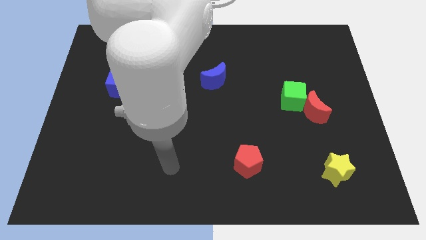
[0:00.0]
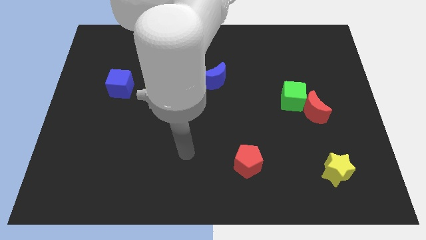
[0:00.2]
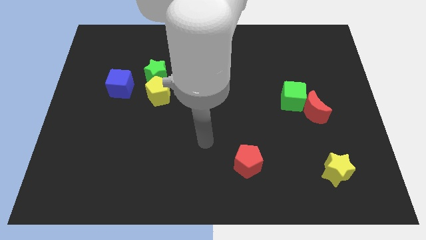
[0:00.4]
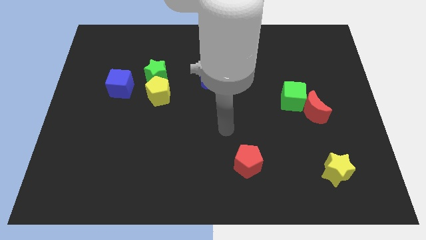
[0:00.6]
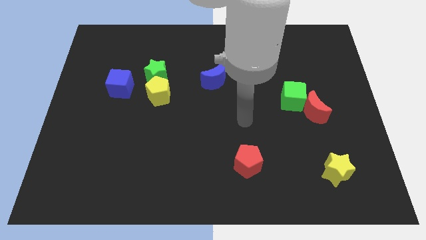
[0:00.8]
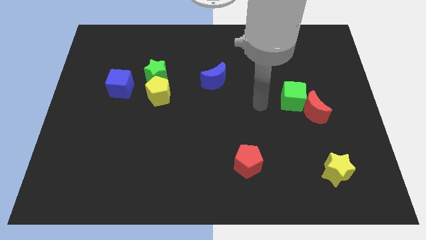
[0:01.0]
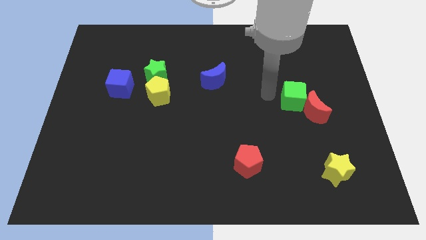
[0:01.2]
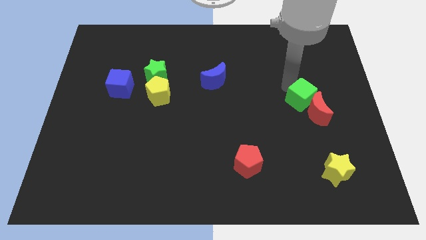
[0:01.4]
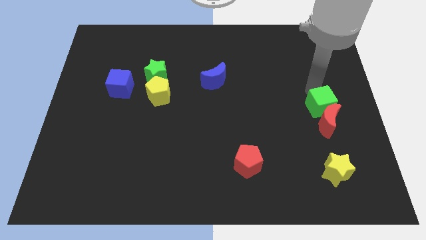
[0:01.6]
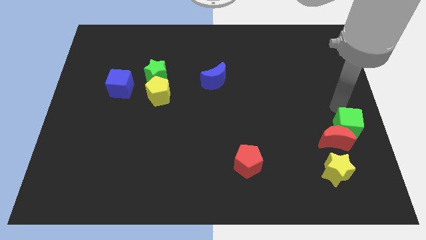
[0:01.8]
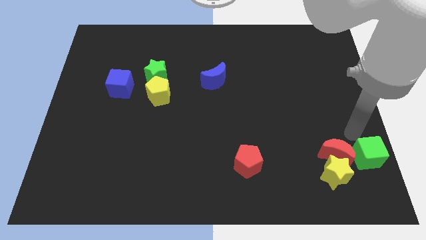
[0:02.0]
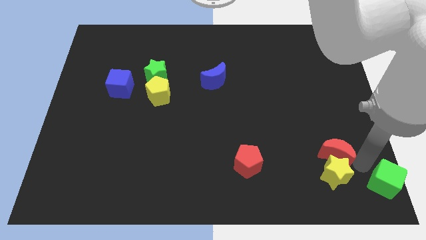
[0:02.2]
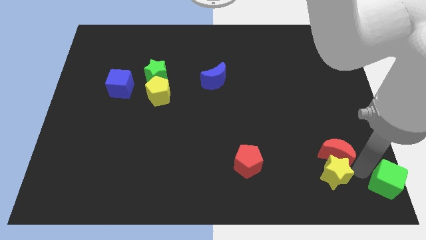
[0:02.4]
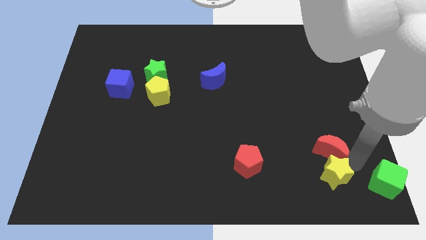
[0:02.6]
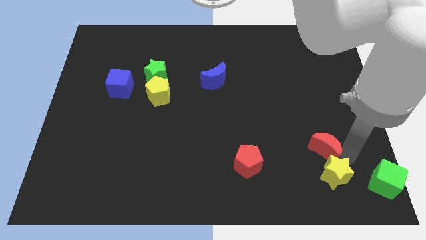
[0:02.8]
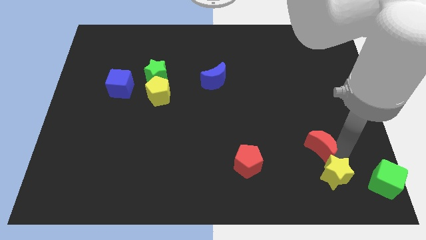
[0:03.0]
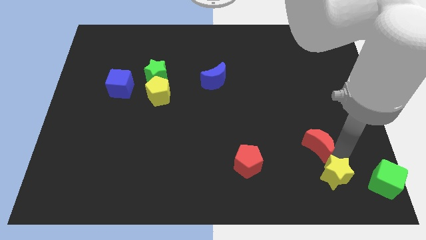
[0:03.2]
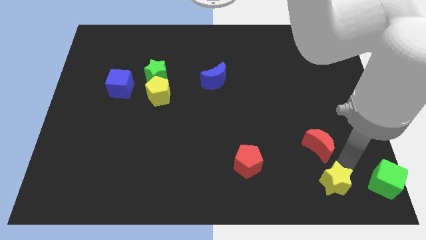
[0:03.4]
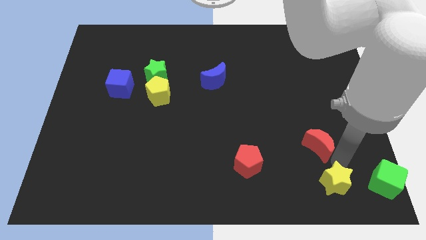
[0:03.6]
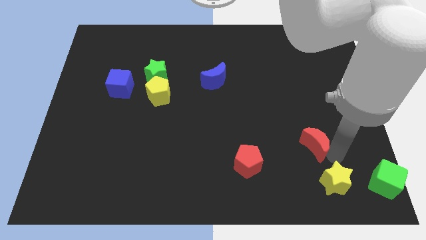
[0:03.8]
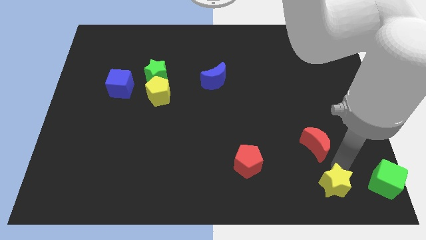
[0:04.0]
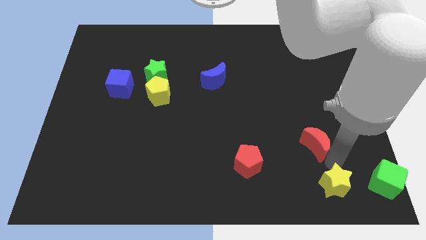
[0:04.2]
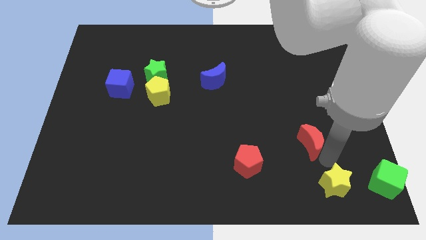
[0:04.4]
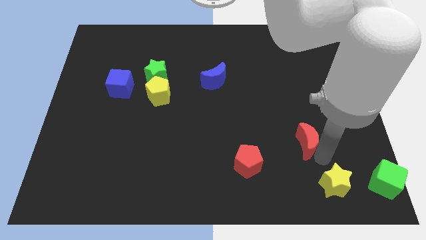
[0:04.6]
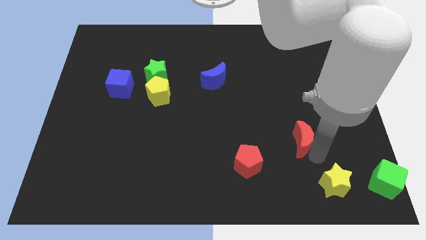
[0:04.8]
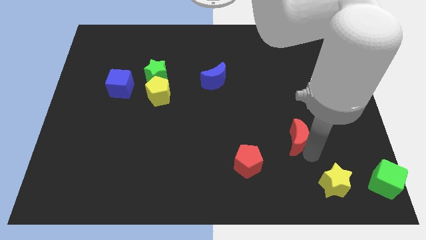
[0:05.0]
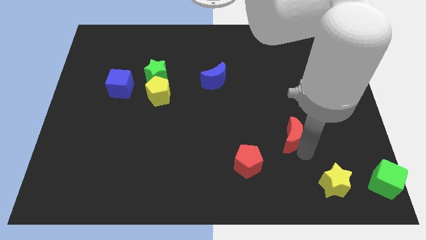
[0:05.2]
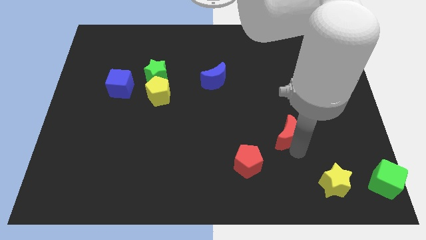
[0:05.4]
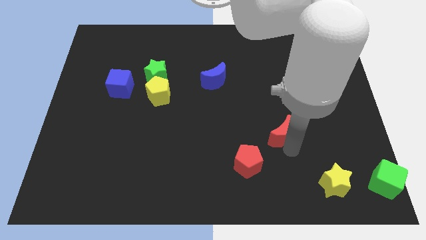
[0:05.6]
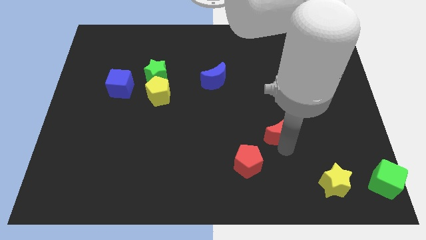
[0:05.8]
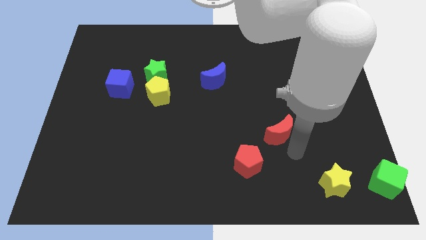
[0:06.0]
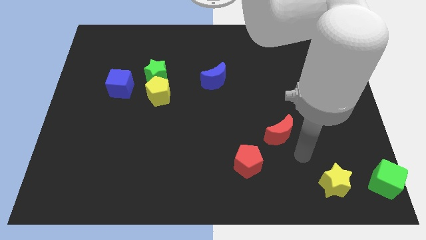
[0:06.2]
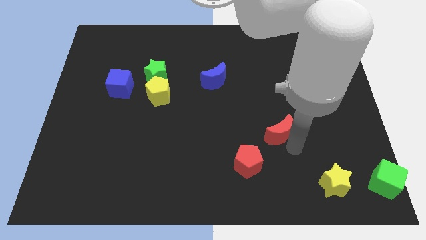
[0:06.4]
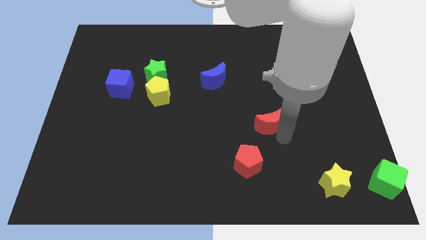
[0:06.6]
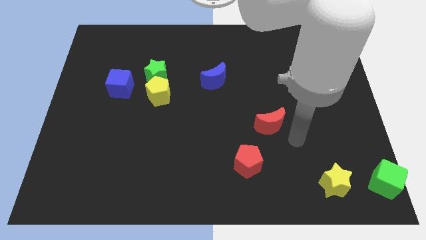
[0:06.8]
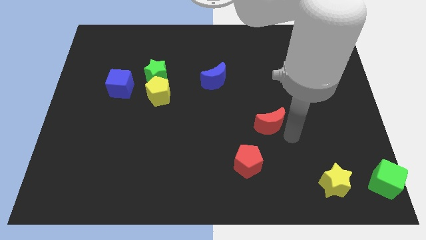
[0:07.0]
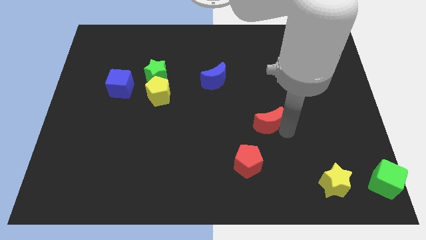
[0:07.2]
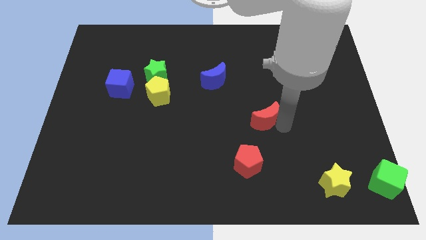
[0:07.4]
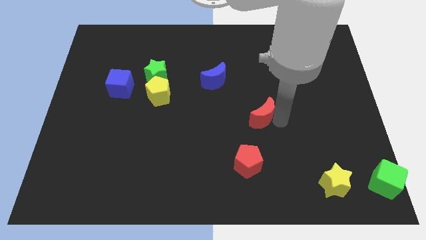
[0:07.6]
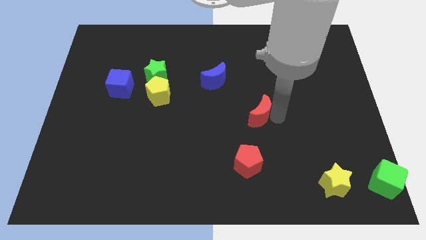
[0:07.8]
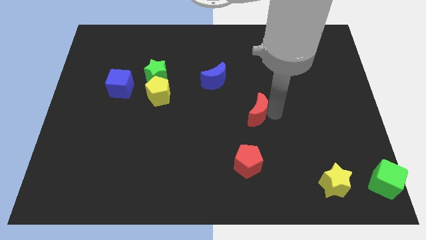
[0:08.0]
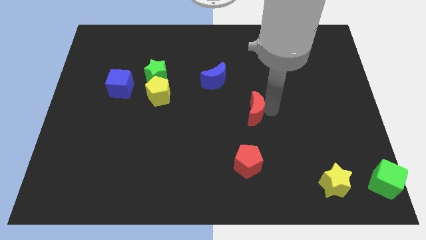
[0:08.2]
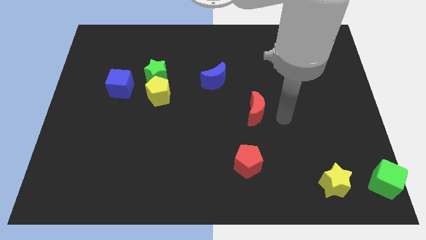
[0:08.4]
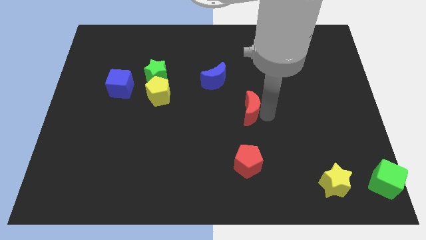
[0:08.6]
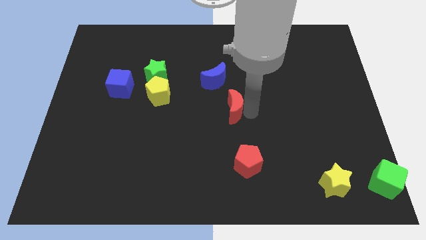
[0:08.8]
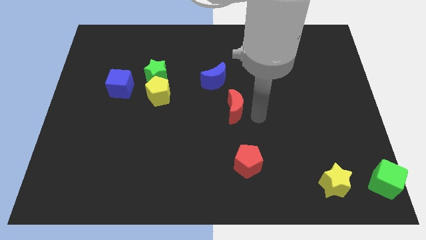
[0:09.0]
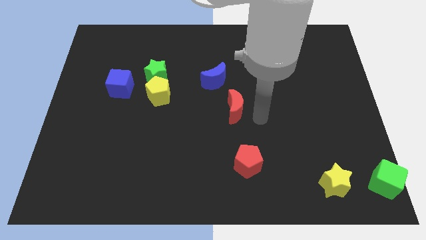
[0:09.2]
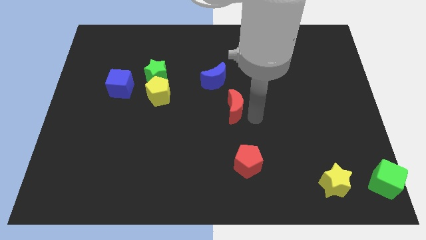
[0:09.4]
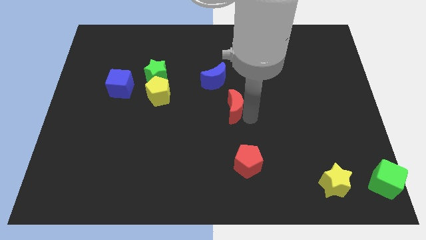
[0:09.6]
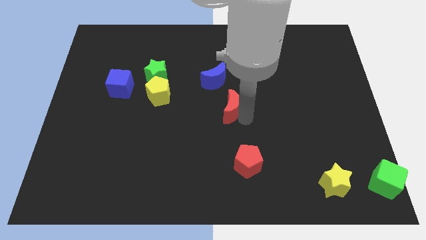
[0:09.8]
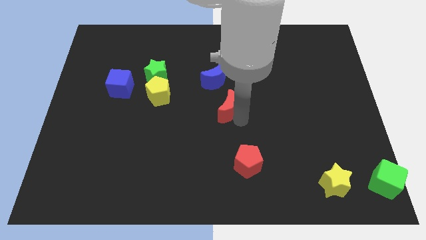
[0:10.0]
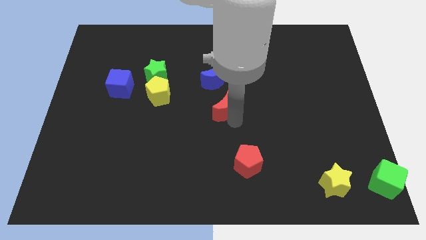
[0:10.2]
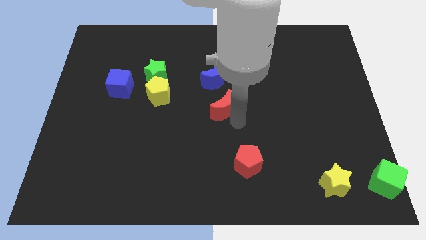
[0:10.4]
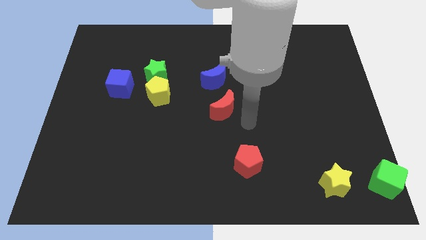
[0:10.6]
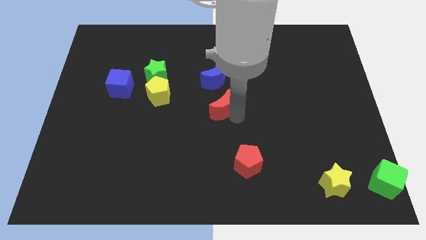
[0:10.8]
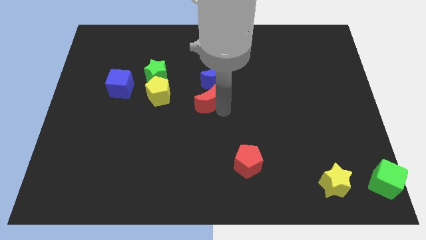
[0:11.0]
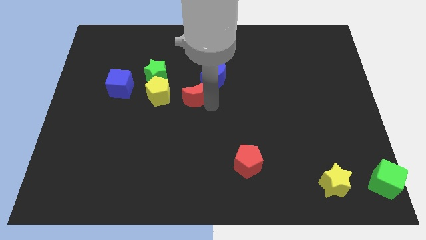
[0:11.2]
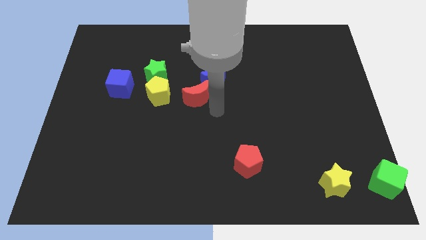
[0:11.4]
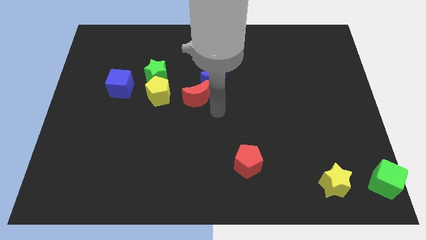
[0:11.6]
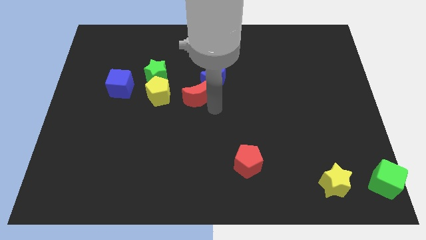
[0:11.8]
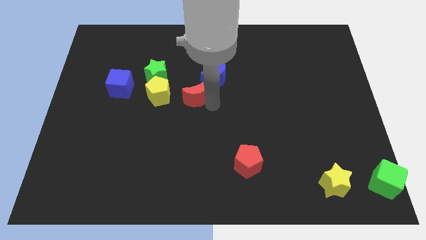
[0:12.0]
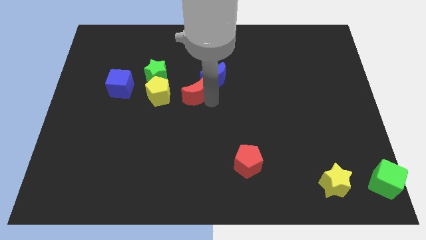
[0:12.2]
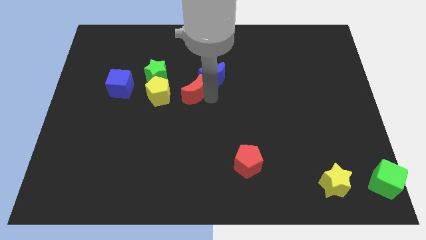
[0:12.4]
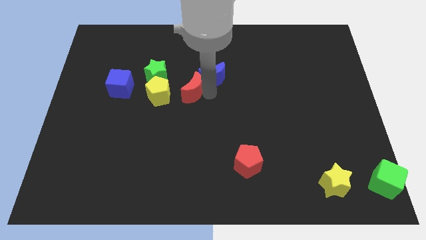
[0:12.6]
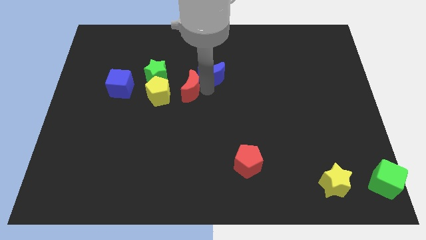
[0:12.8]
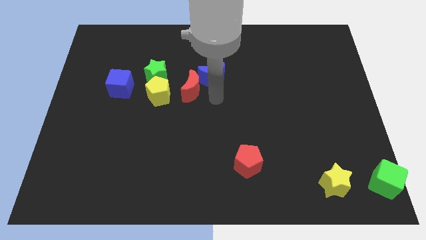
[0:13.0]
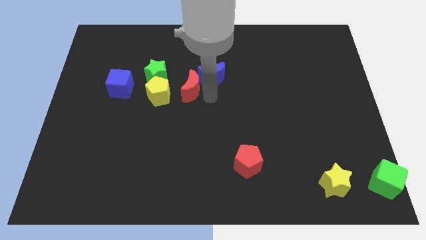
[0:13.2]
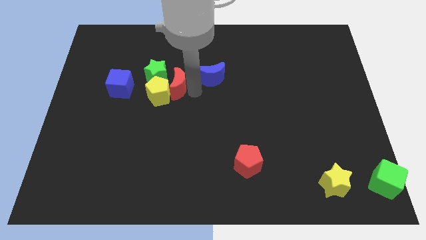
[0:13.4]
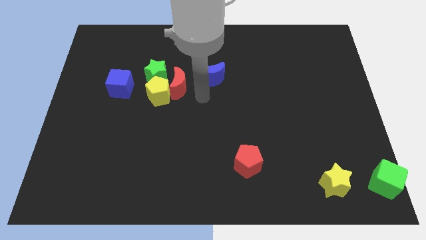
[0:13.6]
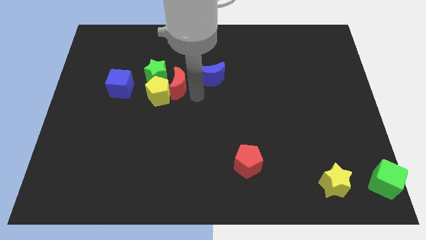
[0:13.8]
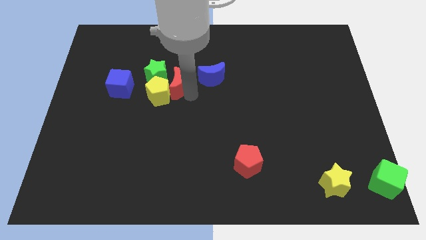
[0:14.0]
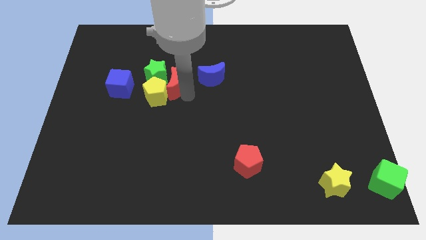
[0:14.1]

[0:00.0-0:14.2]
move the red moon next to the green star
